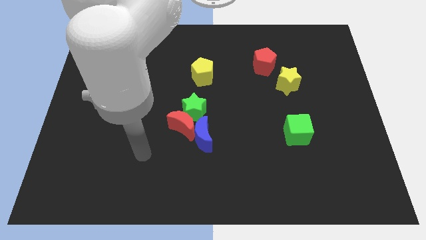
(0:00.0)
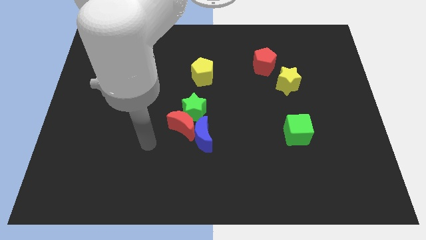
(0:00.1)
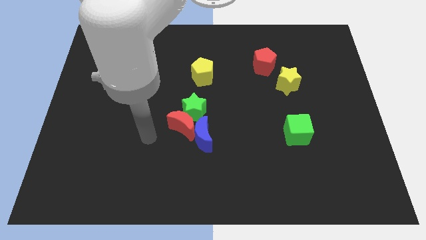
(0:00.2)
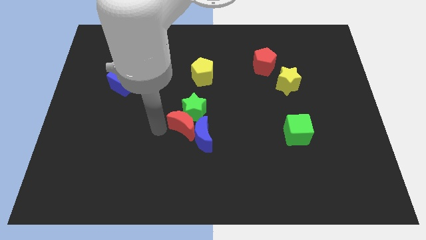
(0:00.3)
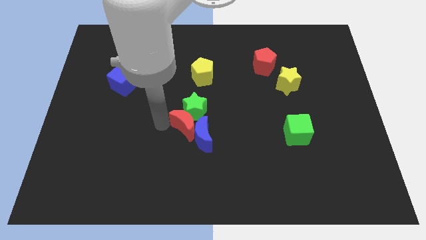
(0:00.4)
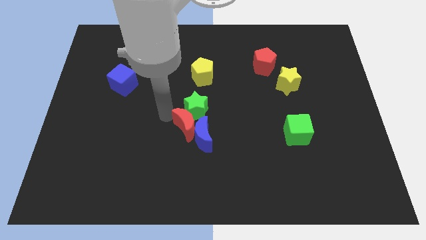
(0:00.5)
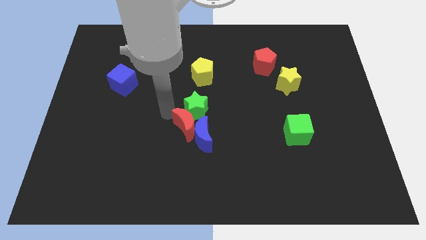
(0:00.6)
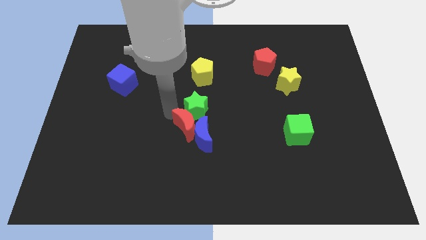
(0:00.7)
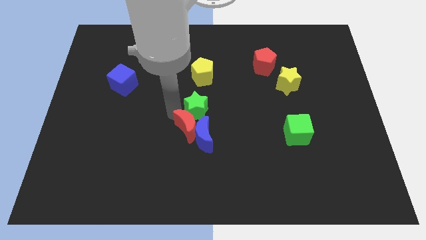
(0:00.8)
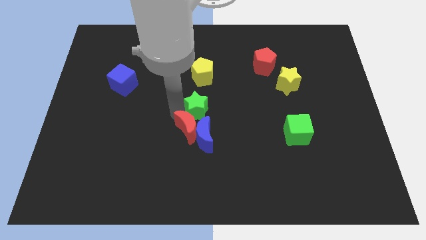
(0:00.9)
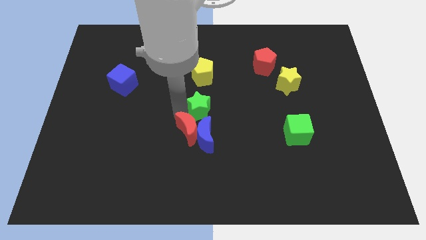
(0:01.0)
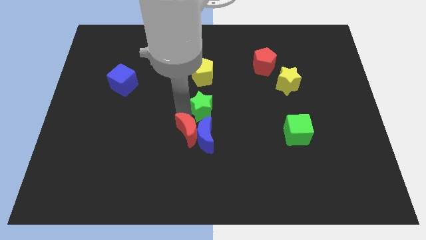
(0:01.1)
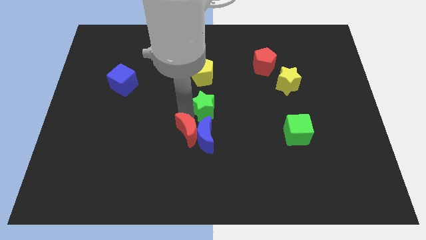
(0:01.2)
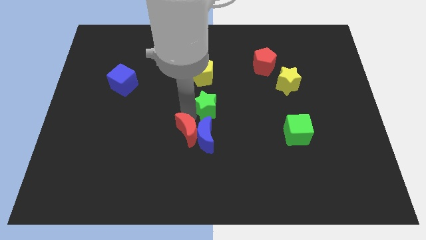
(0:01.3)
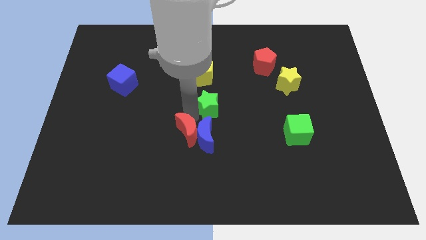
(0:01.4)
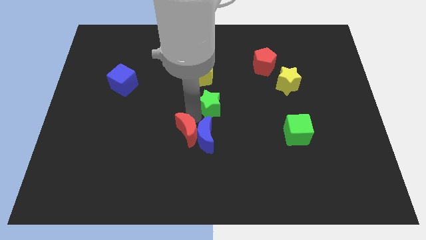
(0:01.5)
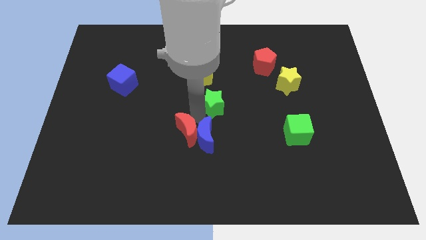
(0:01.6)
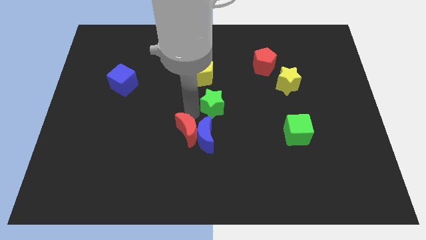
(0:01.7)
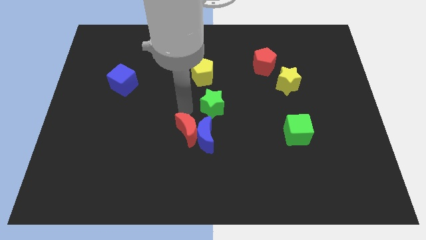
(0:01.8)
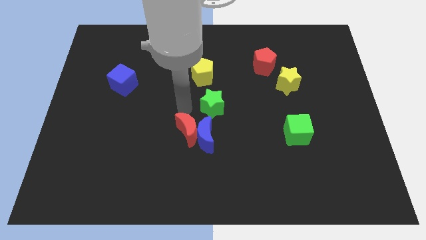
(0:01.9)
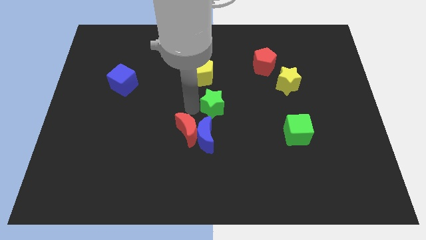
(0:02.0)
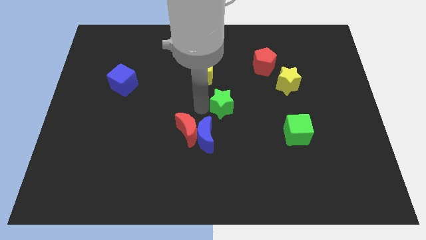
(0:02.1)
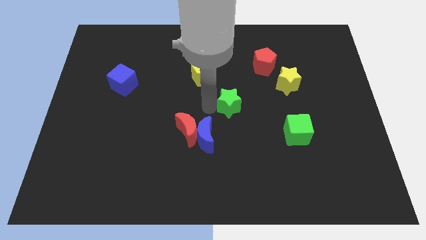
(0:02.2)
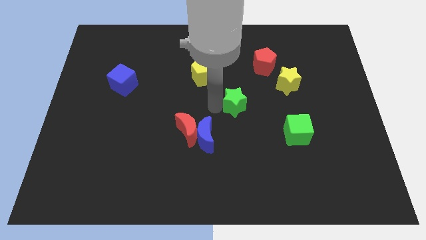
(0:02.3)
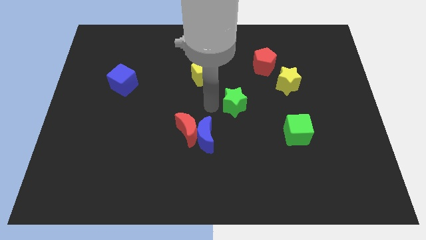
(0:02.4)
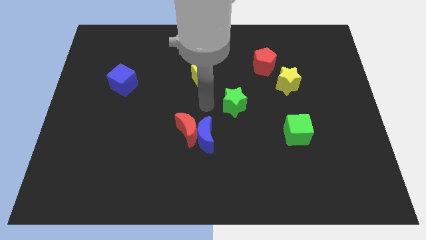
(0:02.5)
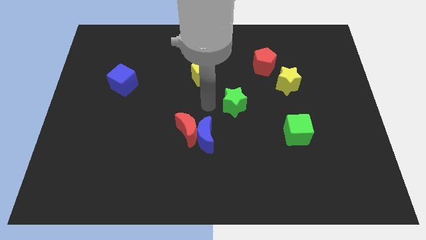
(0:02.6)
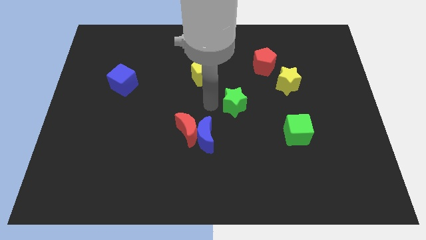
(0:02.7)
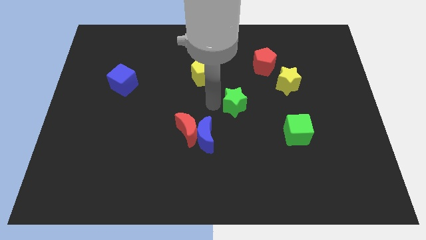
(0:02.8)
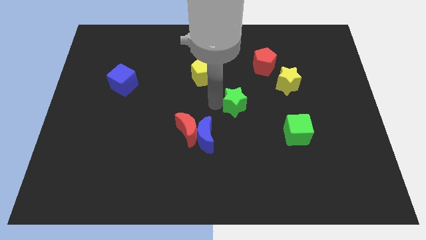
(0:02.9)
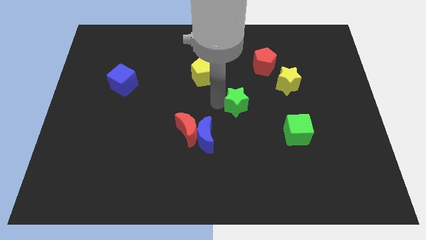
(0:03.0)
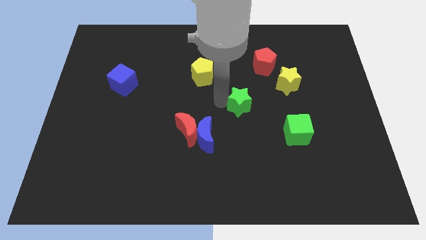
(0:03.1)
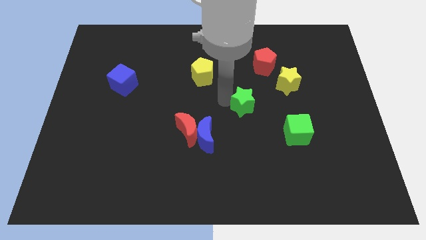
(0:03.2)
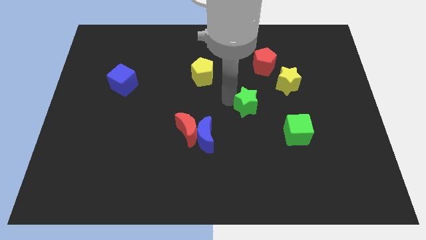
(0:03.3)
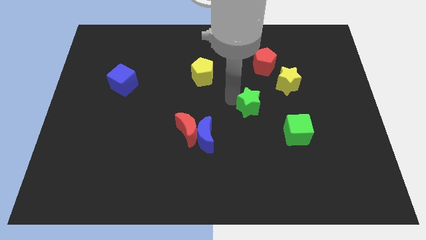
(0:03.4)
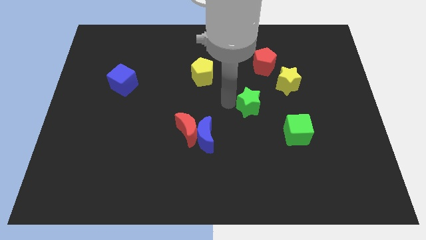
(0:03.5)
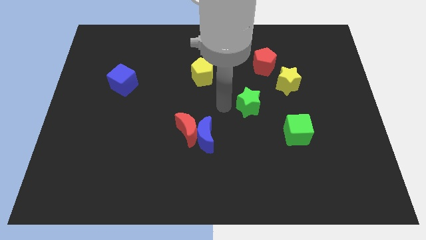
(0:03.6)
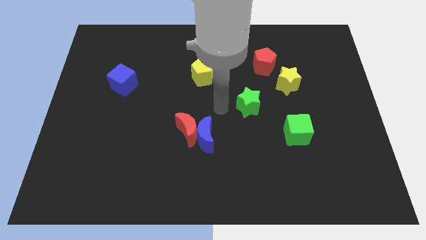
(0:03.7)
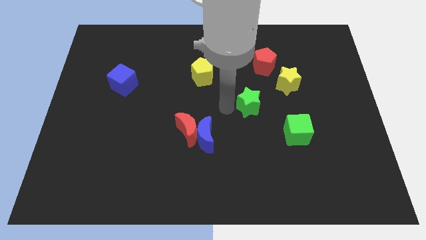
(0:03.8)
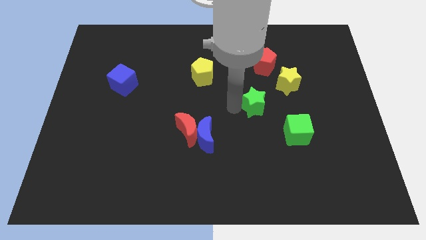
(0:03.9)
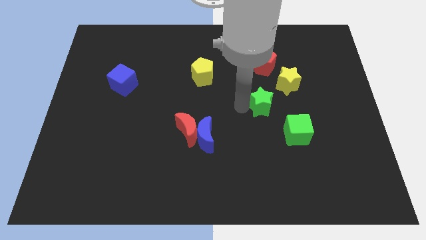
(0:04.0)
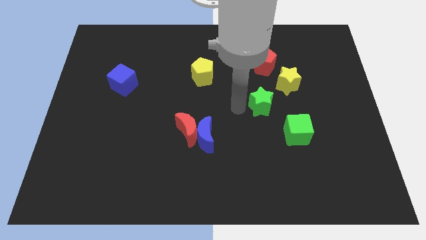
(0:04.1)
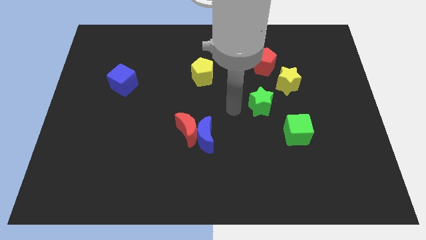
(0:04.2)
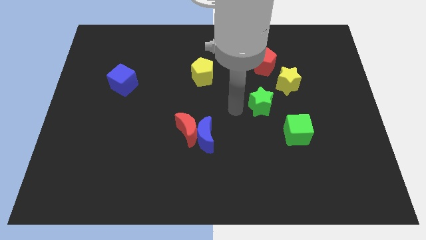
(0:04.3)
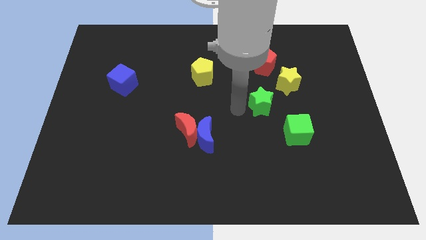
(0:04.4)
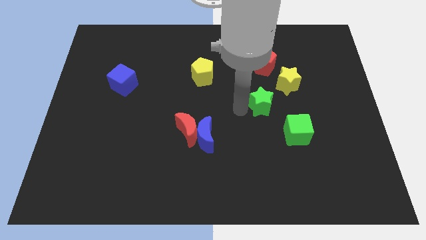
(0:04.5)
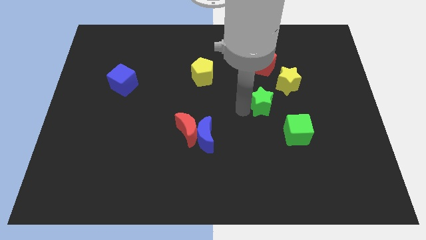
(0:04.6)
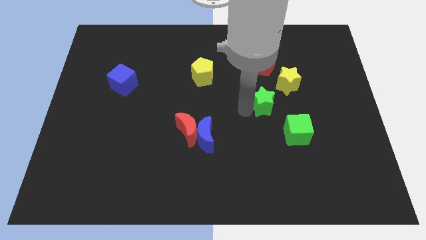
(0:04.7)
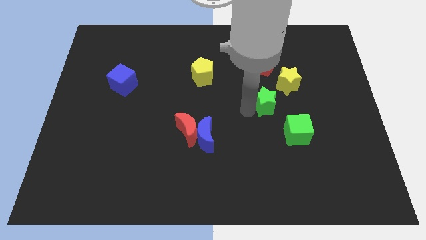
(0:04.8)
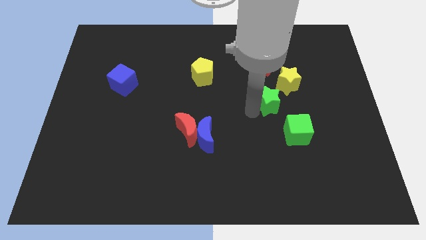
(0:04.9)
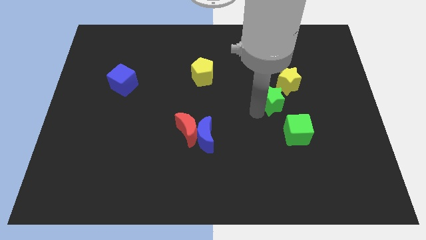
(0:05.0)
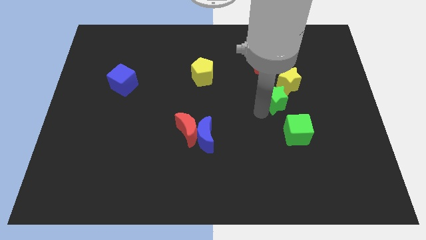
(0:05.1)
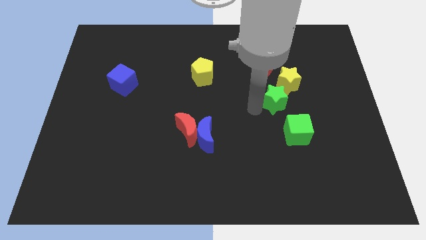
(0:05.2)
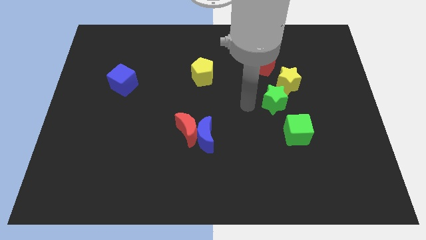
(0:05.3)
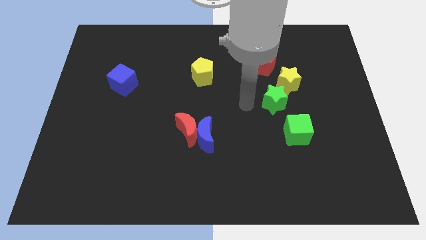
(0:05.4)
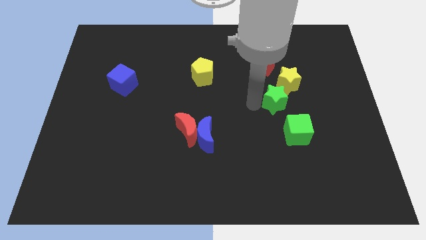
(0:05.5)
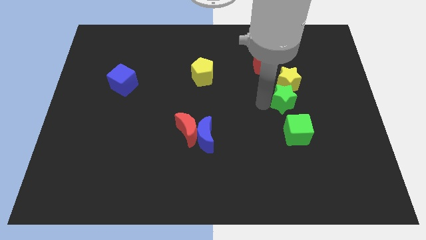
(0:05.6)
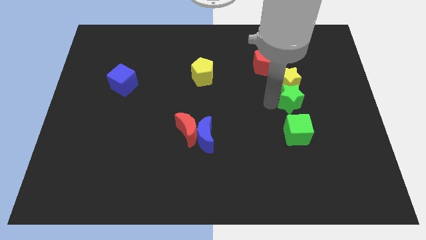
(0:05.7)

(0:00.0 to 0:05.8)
slide the green star to the bottom right side of the yellow star

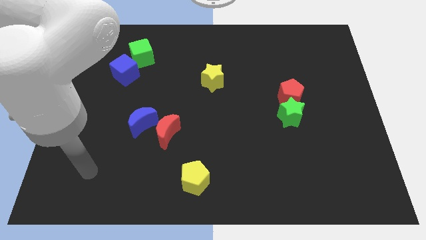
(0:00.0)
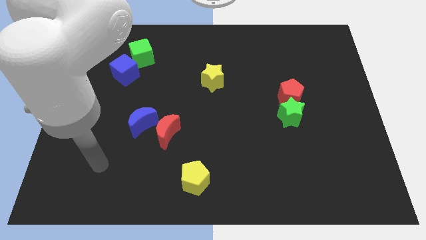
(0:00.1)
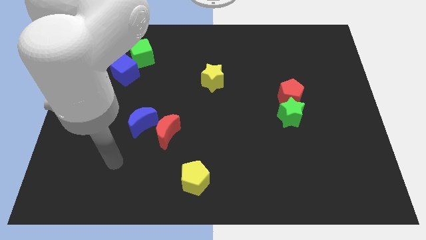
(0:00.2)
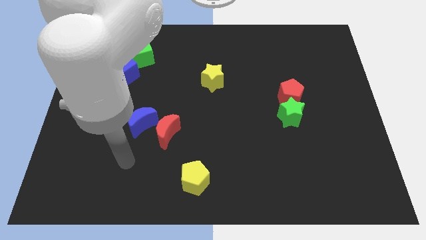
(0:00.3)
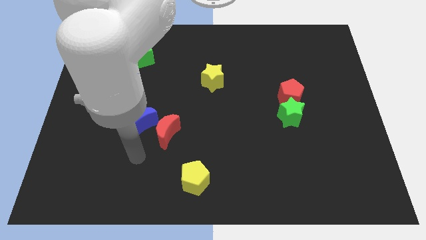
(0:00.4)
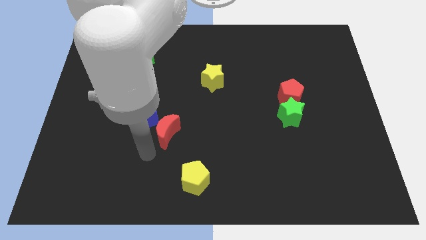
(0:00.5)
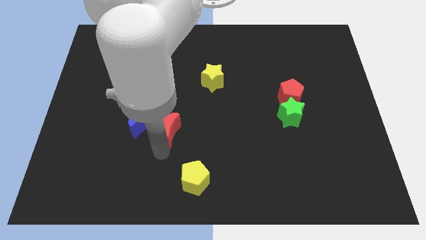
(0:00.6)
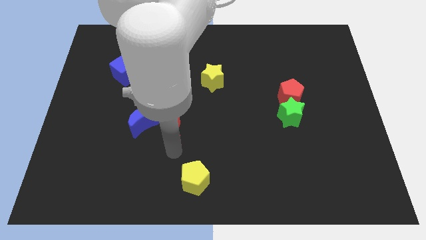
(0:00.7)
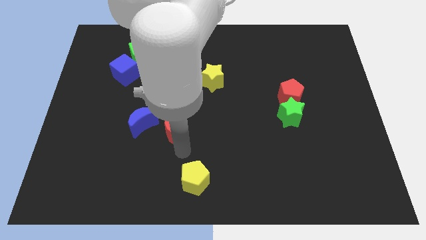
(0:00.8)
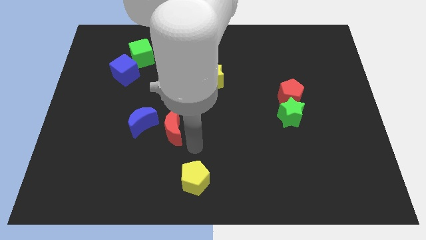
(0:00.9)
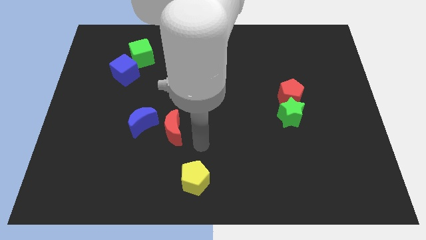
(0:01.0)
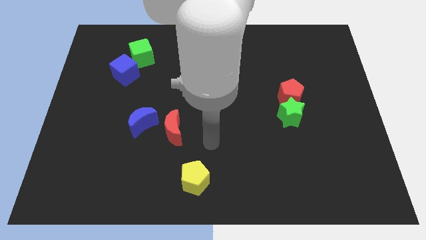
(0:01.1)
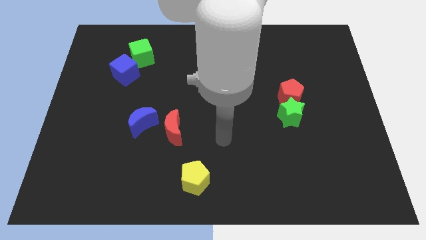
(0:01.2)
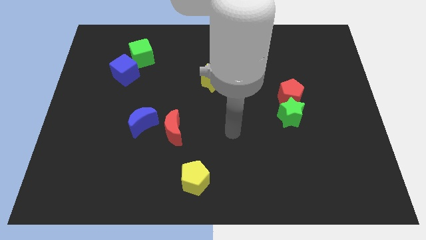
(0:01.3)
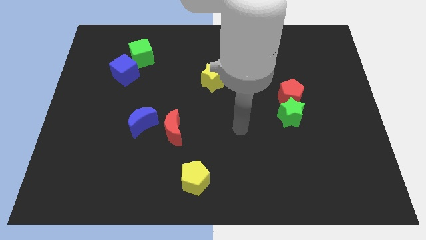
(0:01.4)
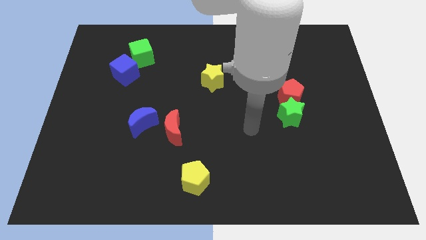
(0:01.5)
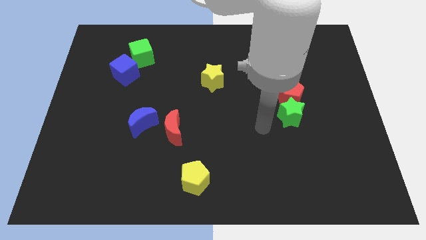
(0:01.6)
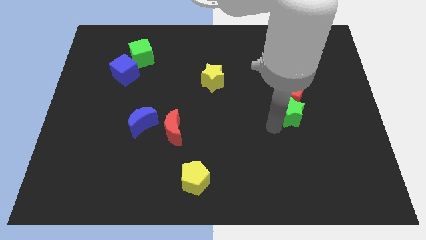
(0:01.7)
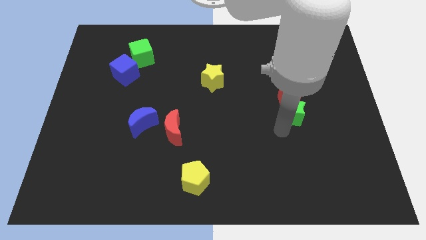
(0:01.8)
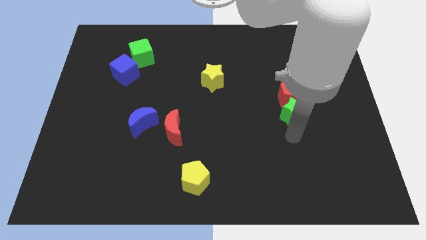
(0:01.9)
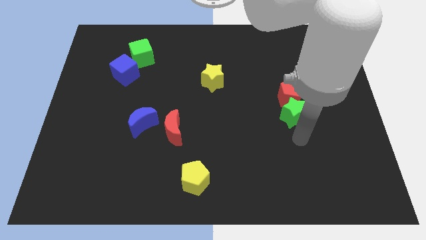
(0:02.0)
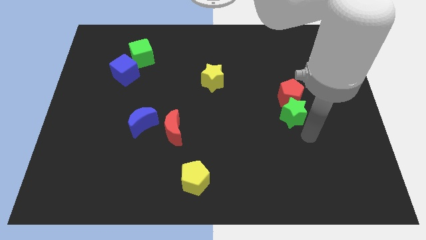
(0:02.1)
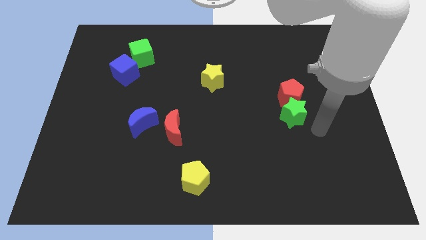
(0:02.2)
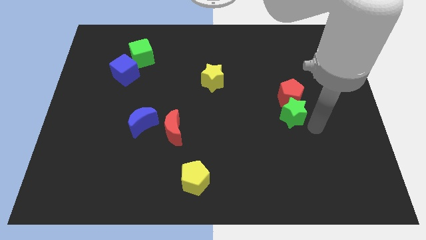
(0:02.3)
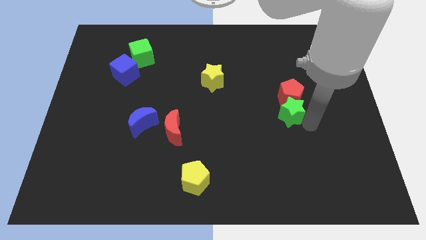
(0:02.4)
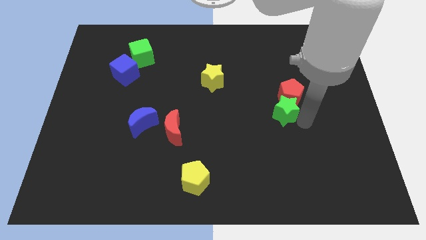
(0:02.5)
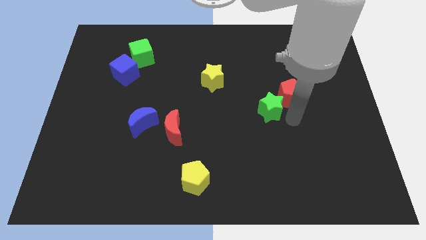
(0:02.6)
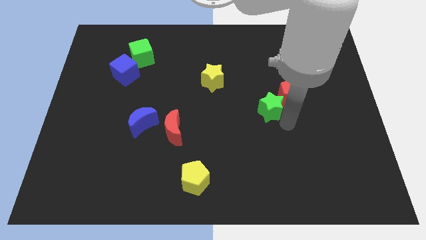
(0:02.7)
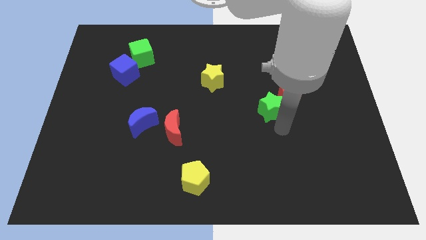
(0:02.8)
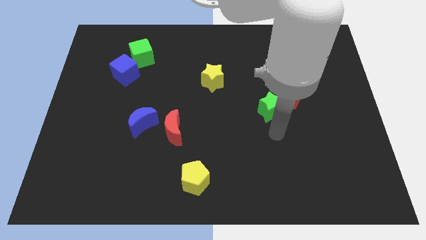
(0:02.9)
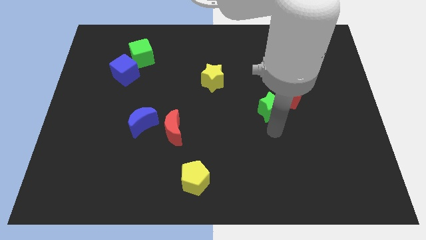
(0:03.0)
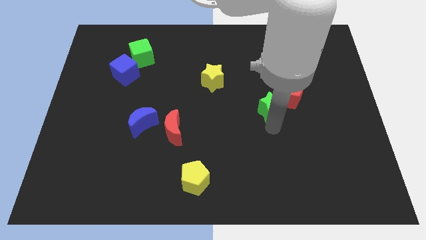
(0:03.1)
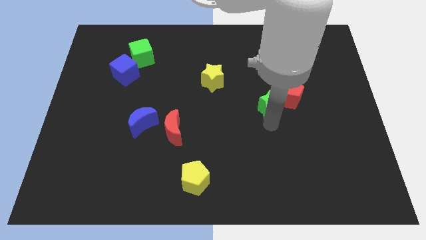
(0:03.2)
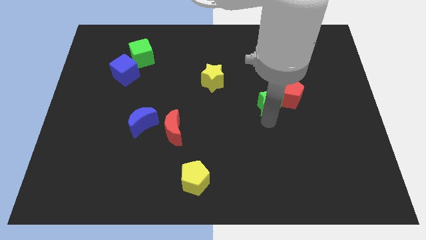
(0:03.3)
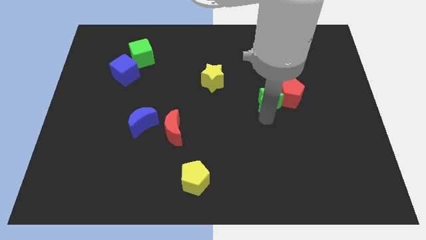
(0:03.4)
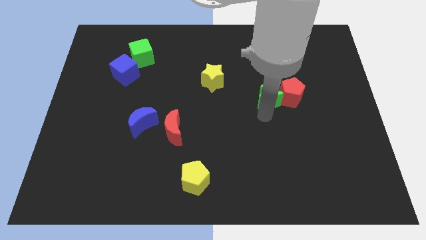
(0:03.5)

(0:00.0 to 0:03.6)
slide the green star to the top left of the red pentagon
